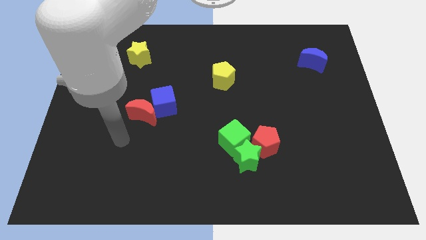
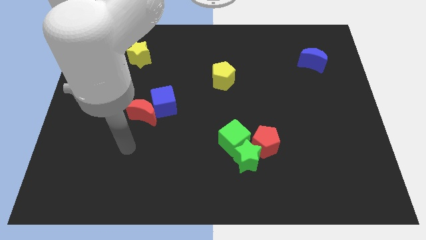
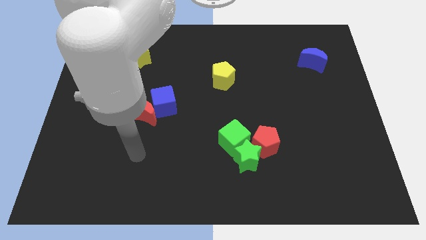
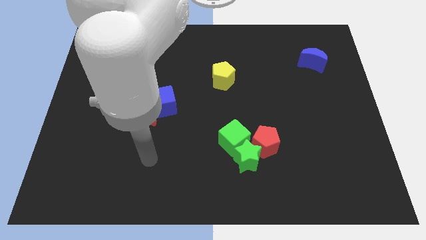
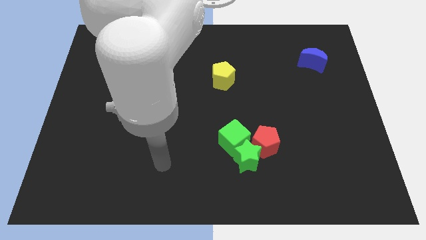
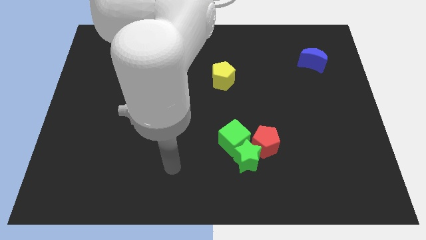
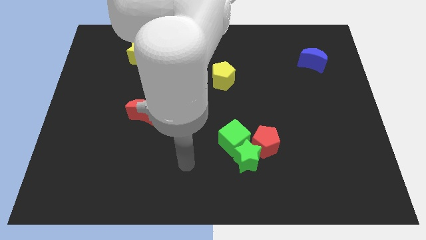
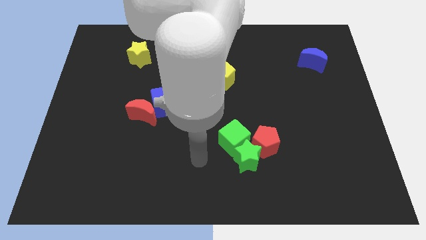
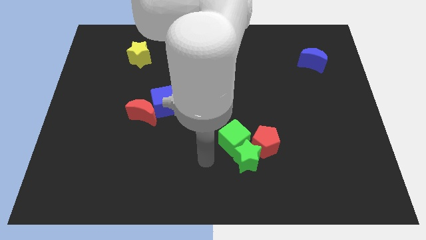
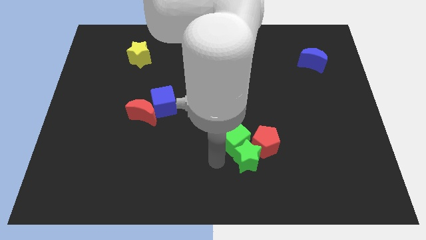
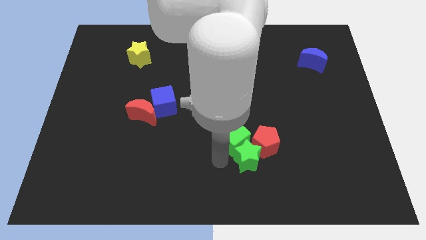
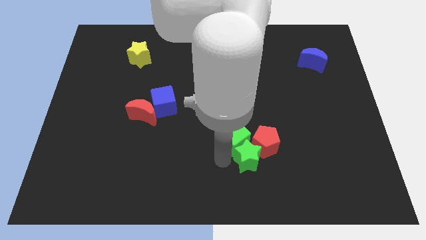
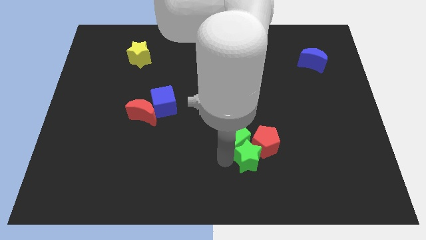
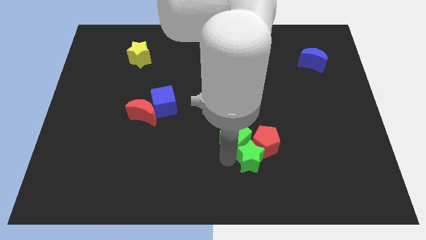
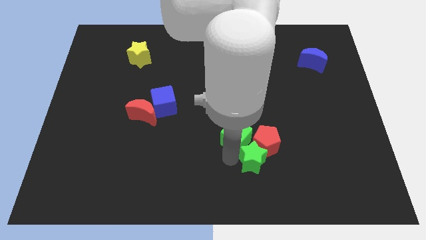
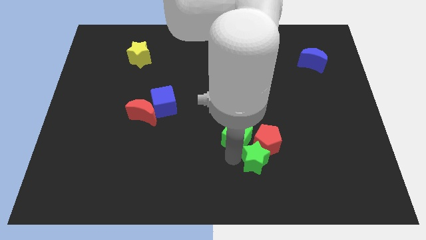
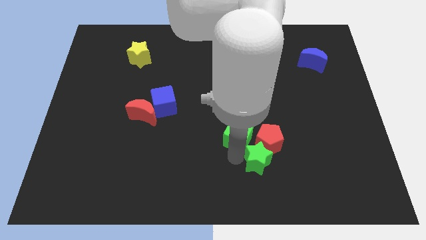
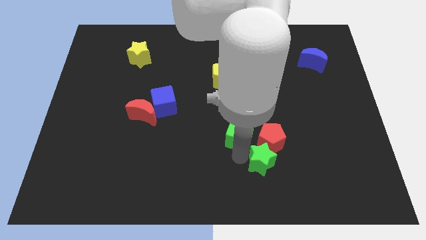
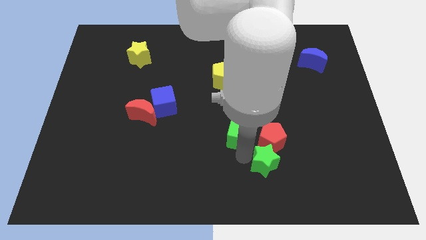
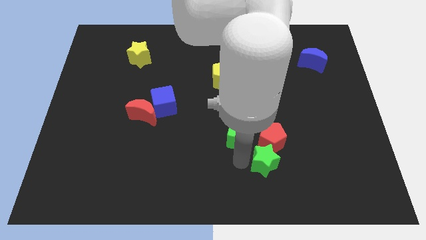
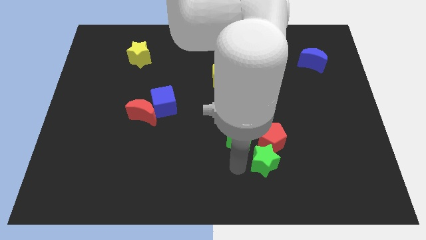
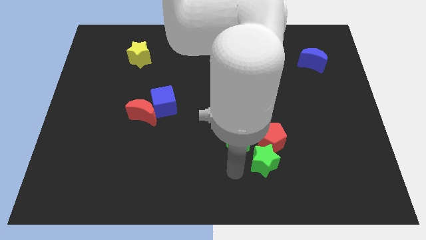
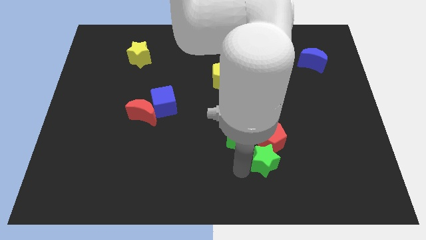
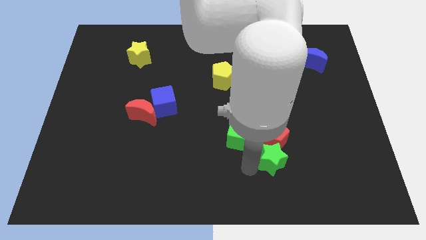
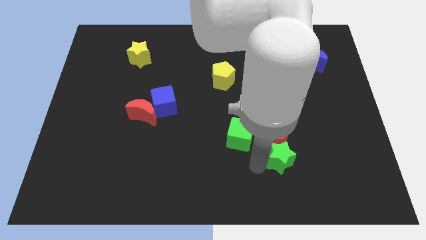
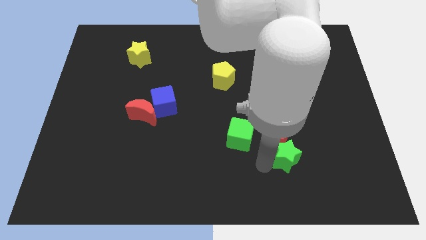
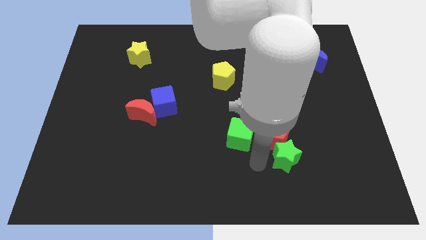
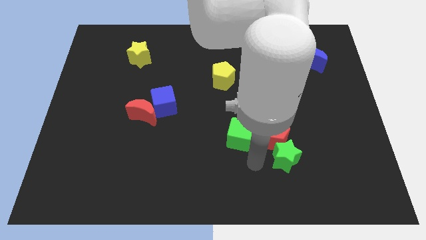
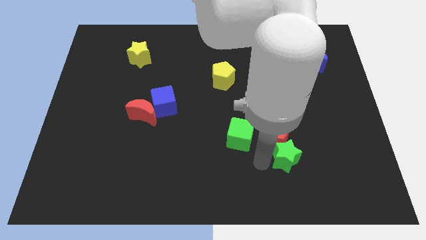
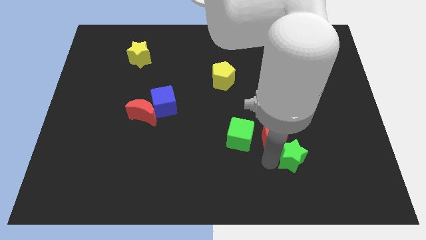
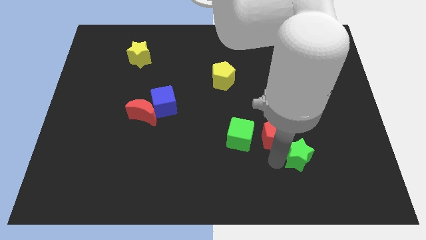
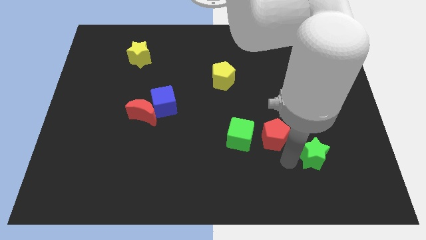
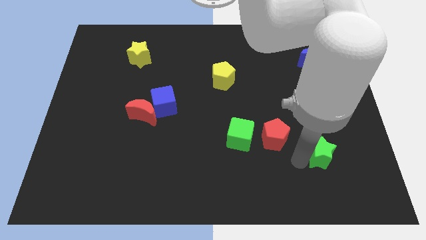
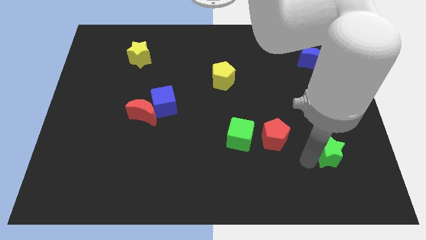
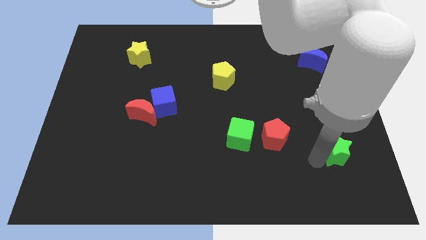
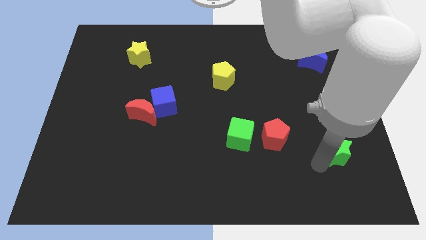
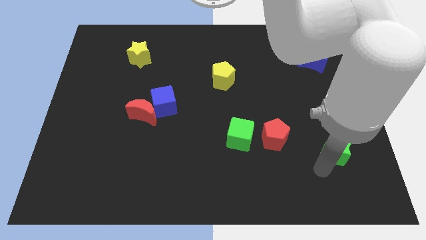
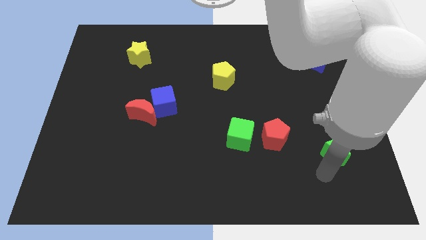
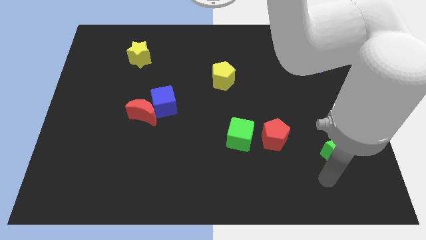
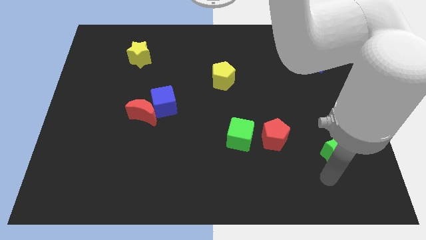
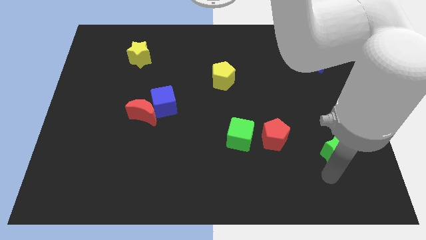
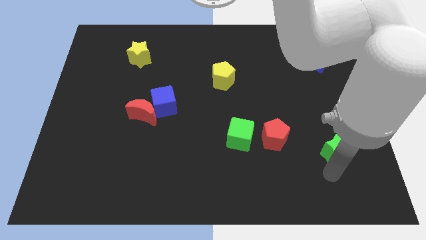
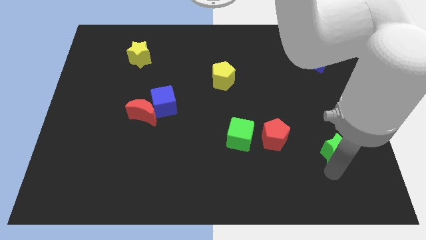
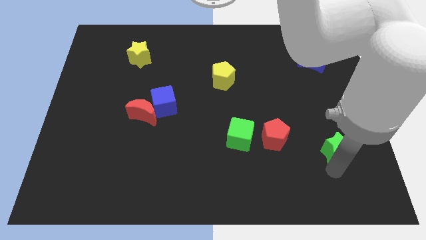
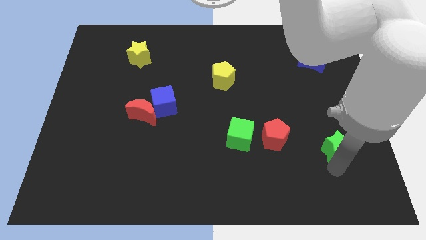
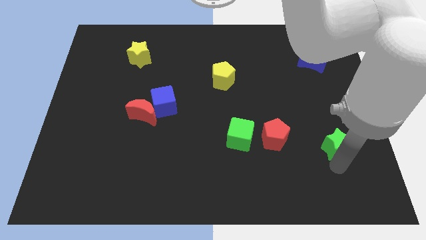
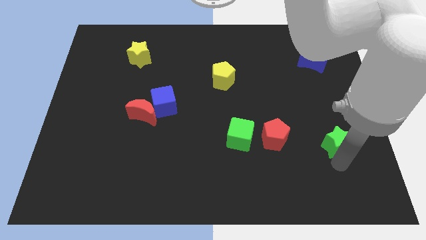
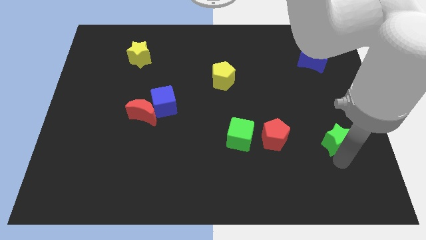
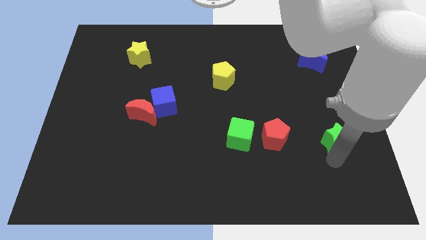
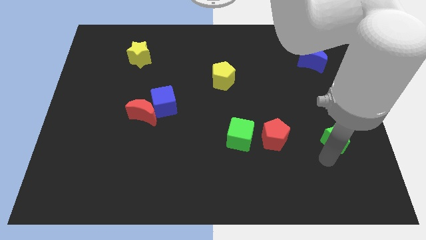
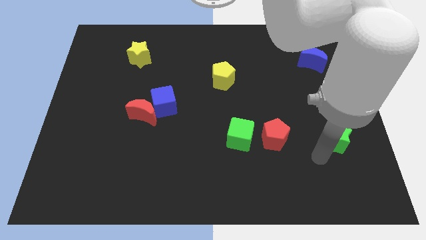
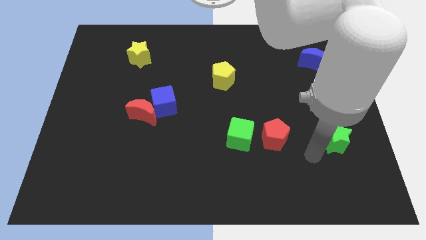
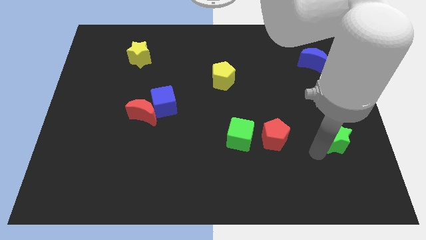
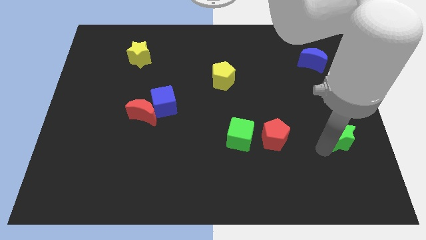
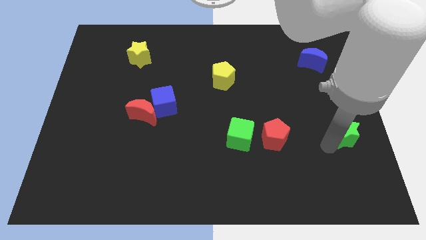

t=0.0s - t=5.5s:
push the green star to the center right
